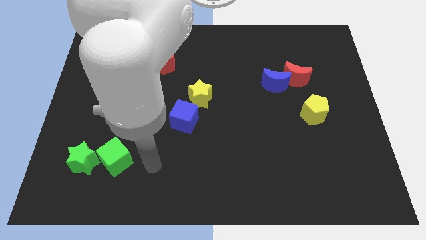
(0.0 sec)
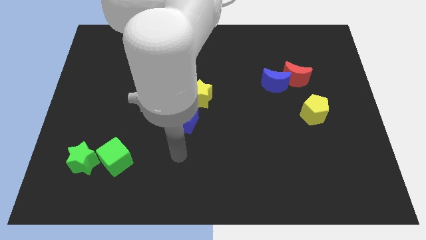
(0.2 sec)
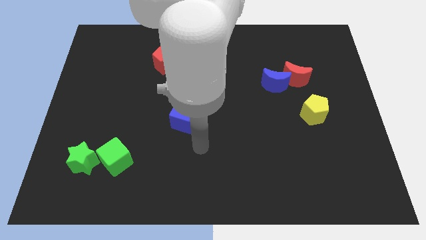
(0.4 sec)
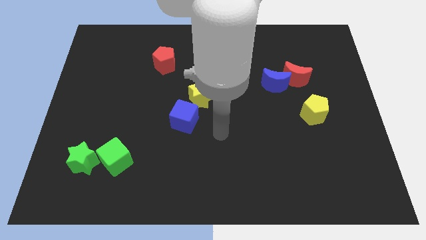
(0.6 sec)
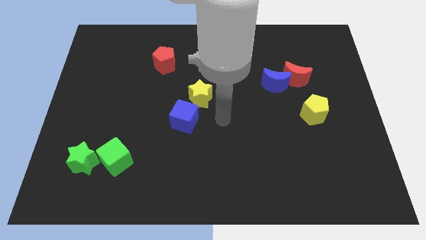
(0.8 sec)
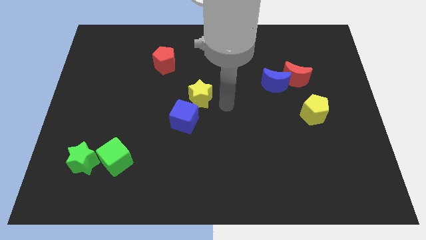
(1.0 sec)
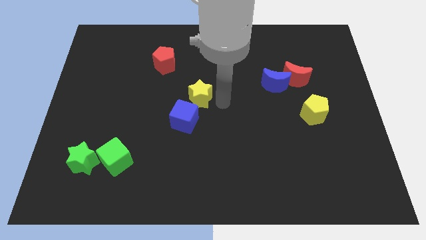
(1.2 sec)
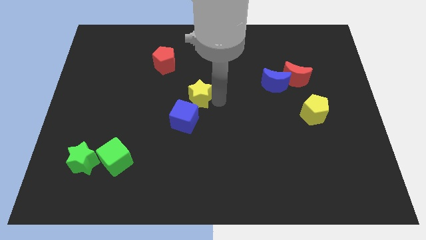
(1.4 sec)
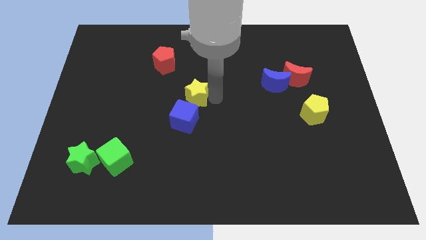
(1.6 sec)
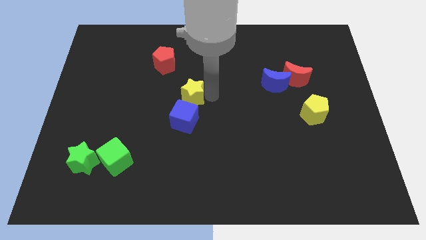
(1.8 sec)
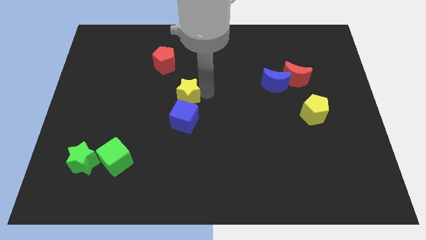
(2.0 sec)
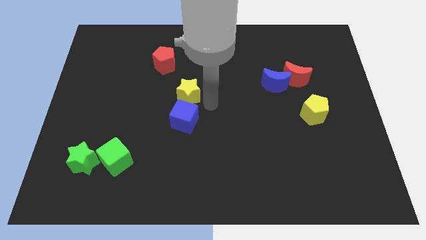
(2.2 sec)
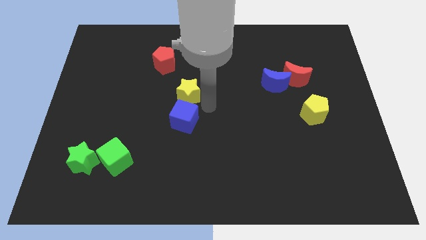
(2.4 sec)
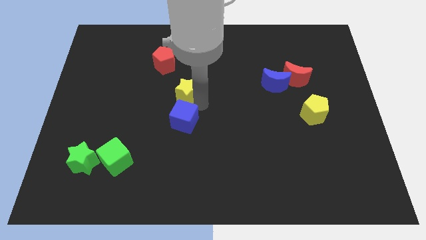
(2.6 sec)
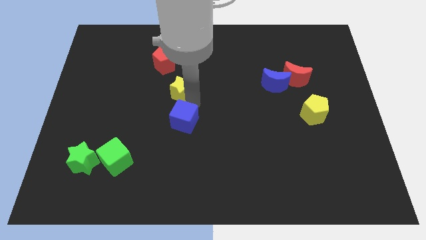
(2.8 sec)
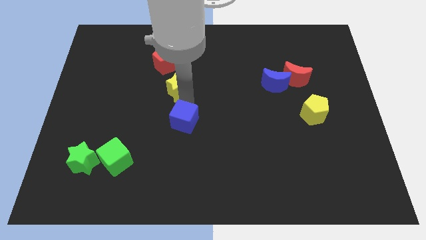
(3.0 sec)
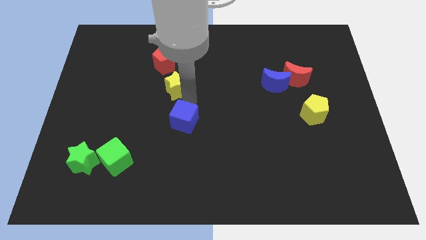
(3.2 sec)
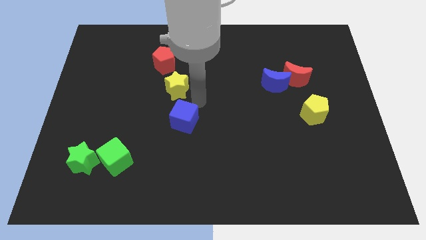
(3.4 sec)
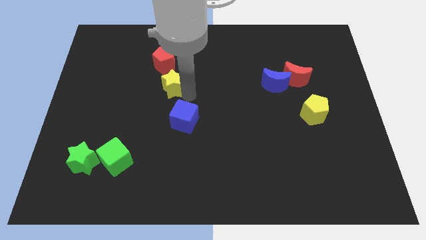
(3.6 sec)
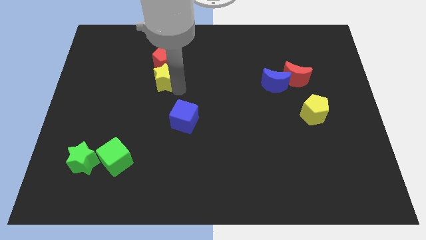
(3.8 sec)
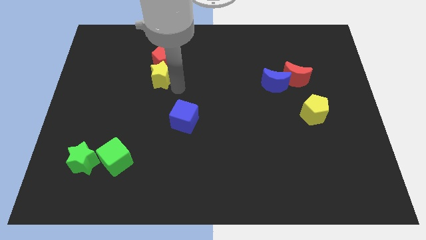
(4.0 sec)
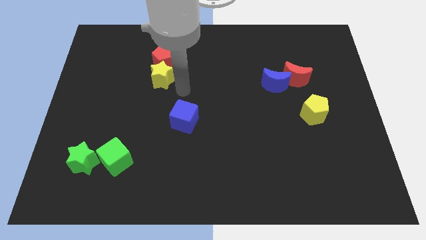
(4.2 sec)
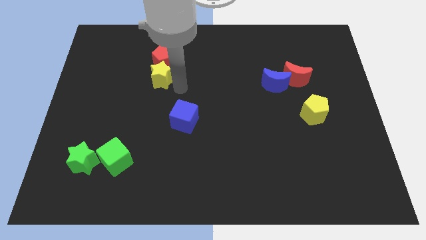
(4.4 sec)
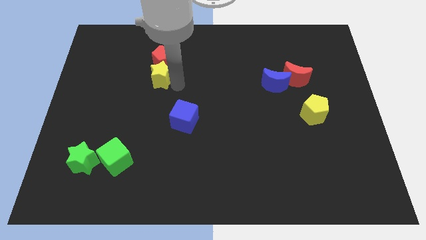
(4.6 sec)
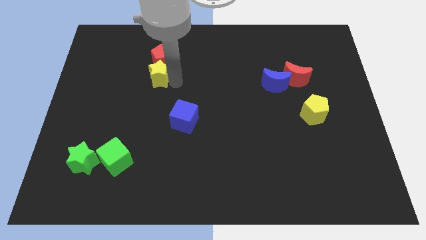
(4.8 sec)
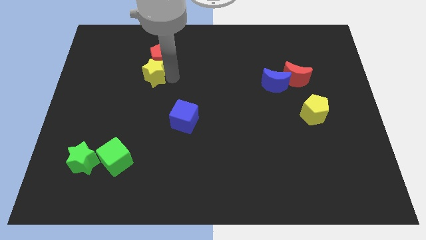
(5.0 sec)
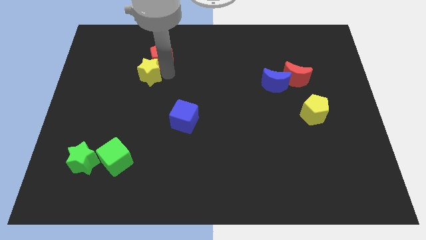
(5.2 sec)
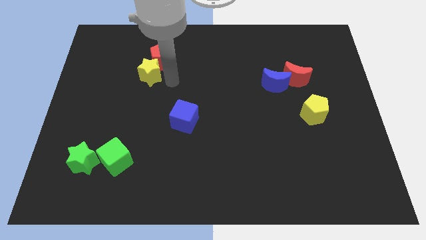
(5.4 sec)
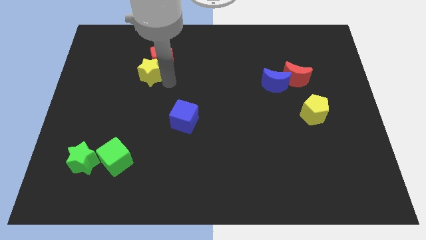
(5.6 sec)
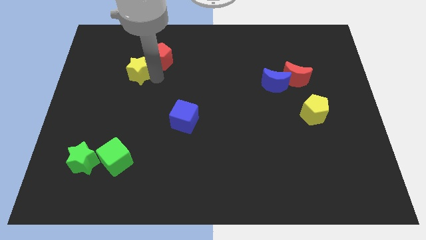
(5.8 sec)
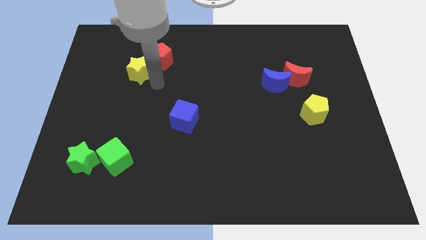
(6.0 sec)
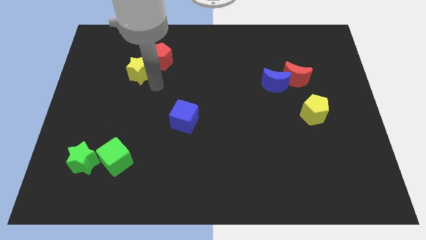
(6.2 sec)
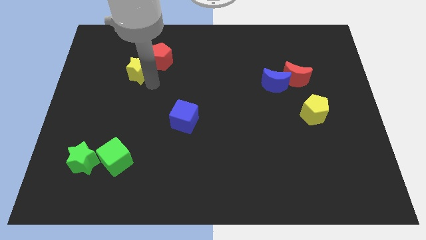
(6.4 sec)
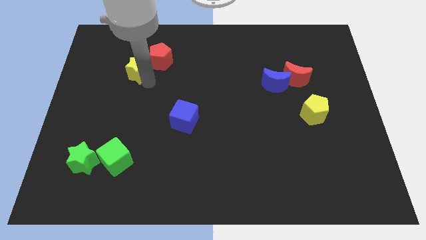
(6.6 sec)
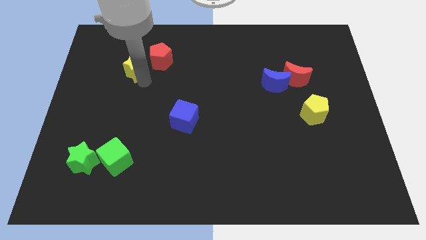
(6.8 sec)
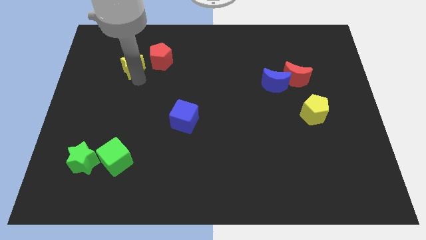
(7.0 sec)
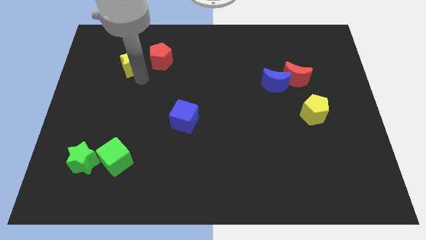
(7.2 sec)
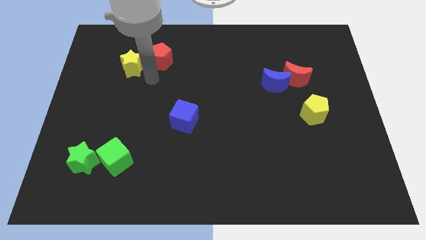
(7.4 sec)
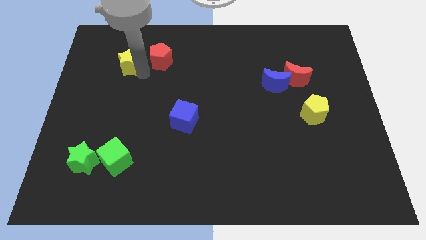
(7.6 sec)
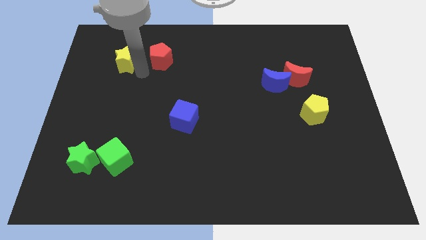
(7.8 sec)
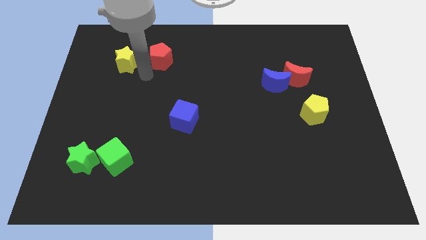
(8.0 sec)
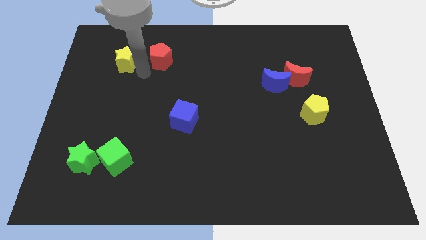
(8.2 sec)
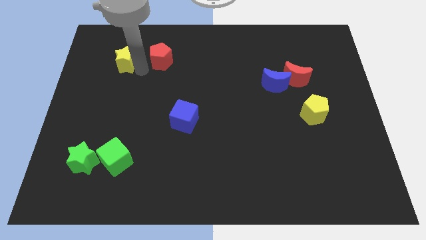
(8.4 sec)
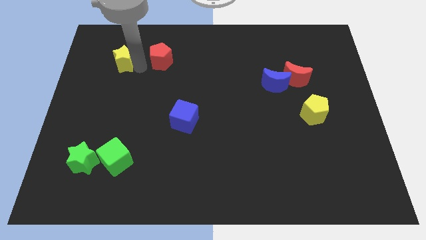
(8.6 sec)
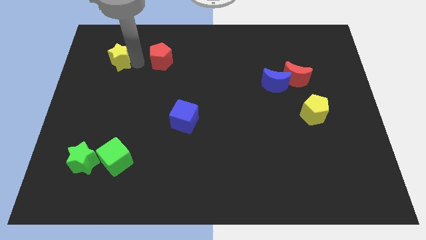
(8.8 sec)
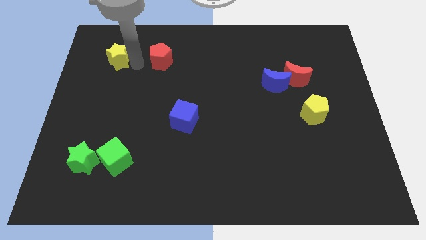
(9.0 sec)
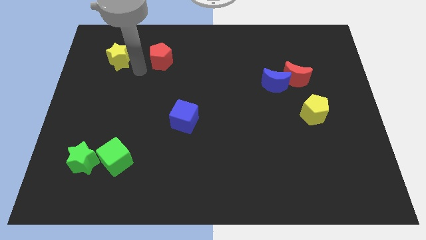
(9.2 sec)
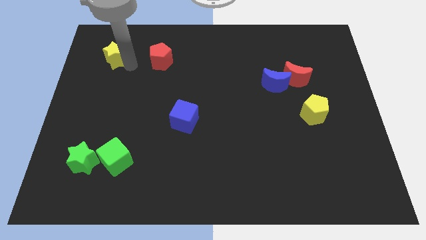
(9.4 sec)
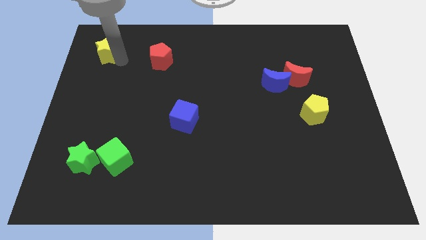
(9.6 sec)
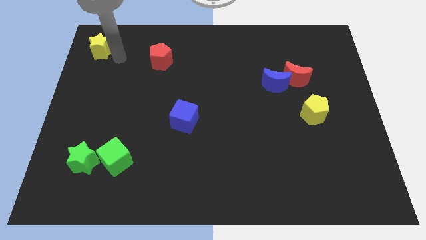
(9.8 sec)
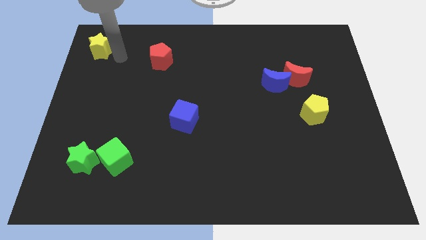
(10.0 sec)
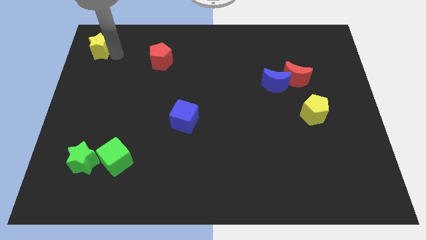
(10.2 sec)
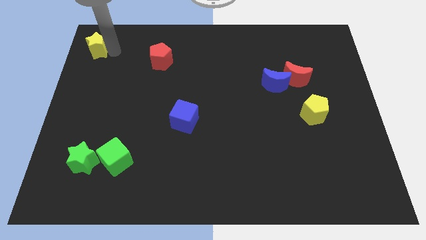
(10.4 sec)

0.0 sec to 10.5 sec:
put the yellow star to the top left of the board

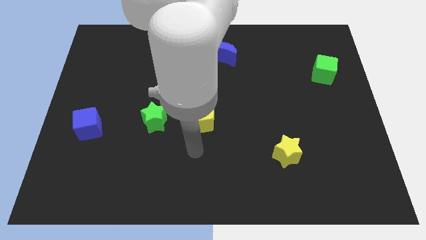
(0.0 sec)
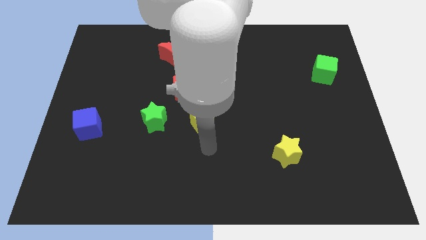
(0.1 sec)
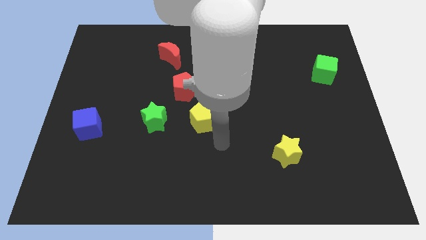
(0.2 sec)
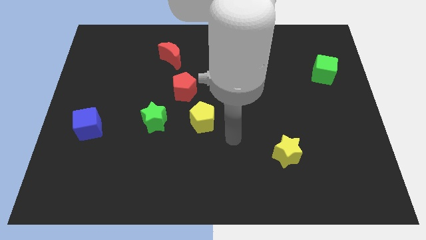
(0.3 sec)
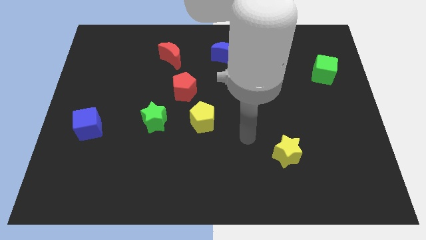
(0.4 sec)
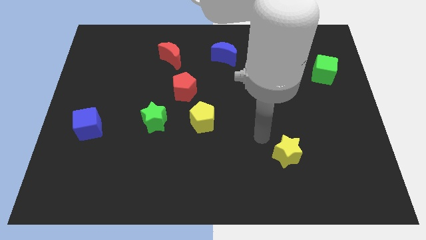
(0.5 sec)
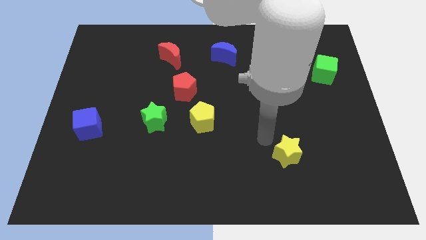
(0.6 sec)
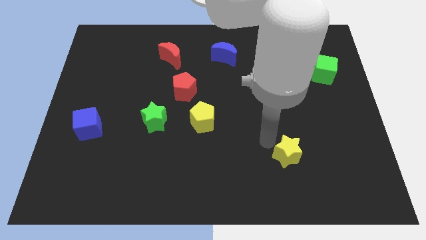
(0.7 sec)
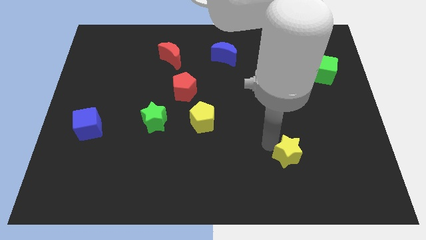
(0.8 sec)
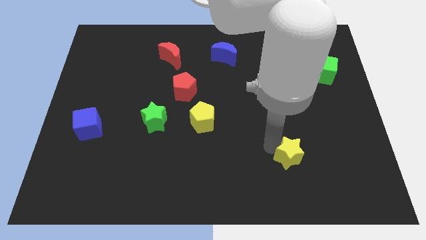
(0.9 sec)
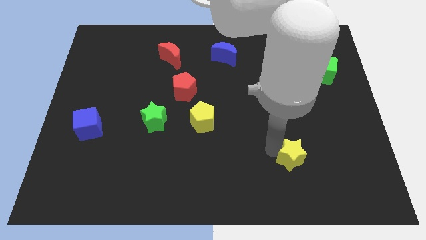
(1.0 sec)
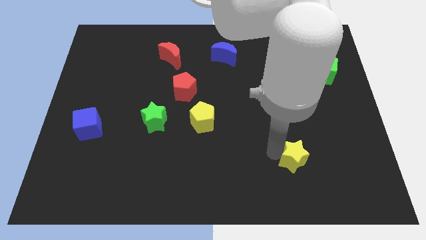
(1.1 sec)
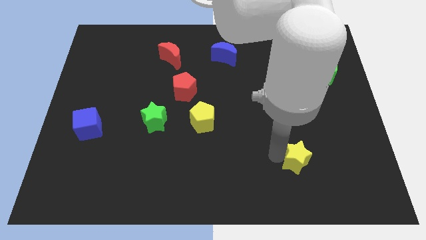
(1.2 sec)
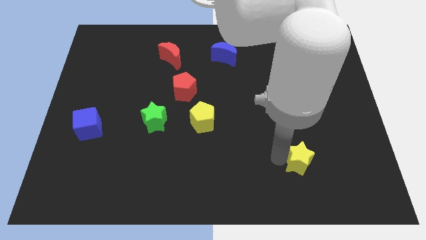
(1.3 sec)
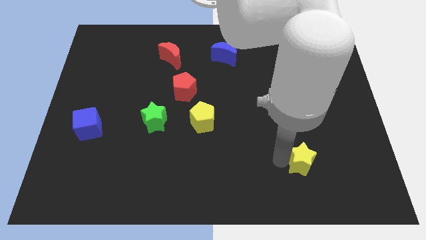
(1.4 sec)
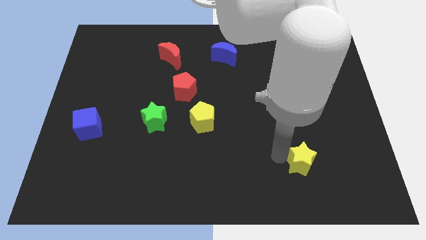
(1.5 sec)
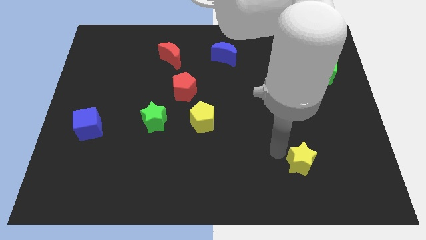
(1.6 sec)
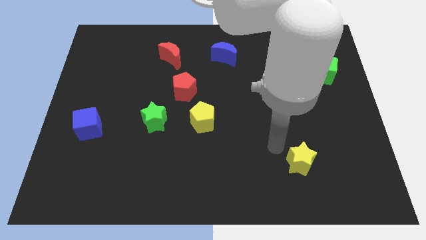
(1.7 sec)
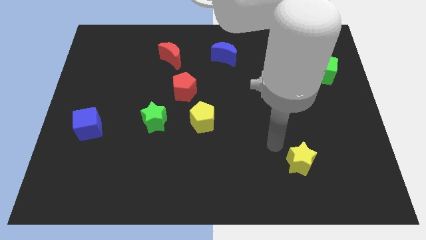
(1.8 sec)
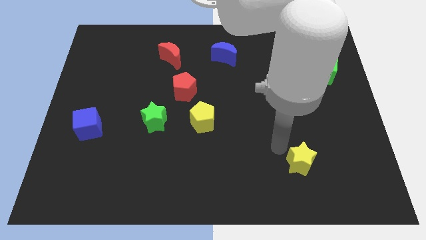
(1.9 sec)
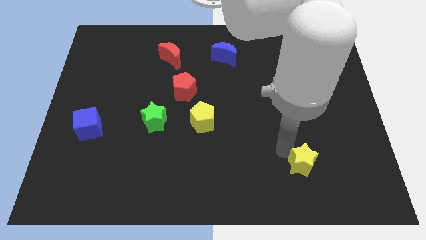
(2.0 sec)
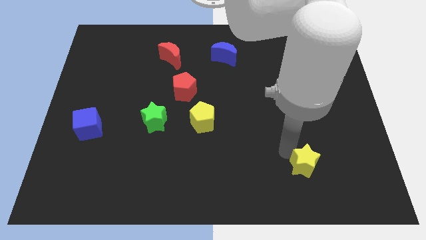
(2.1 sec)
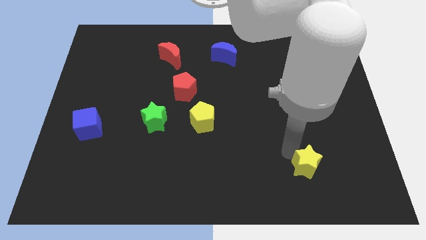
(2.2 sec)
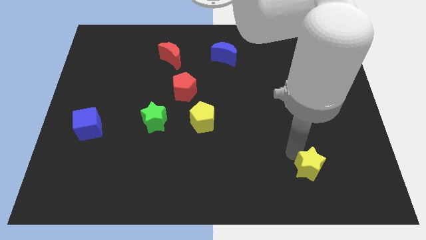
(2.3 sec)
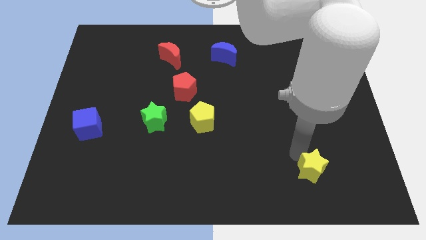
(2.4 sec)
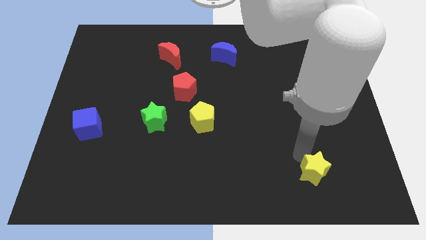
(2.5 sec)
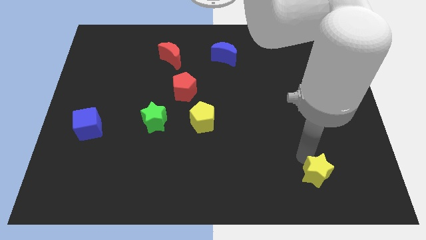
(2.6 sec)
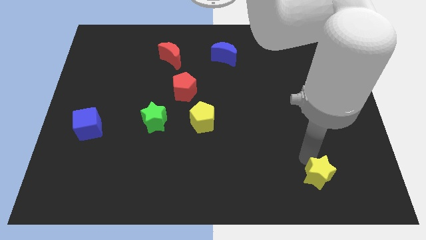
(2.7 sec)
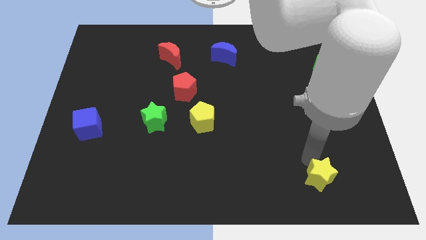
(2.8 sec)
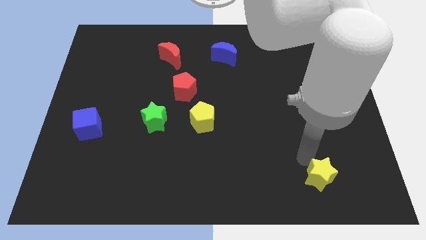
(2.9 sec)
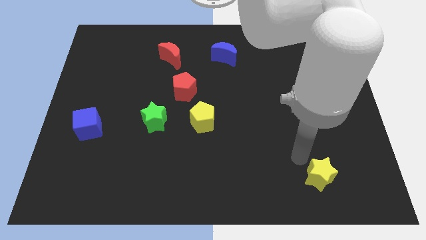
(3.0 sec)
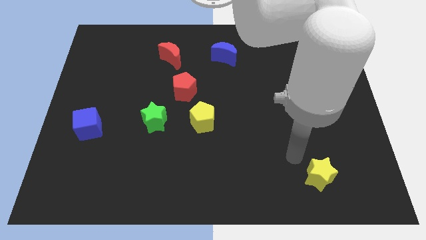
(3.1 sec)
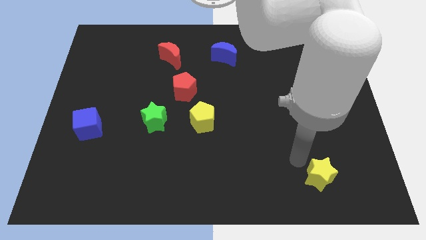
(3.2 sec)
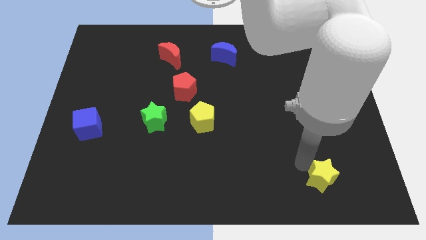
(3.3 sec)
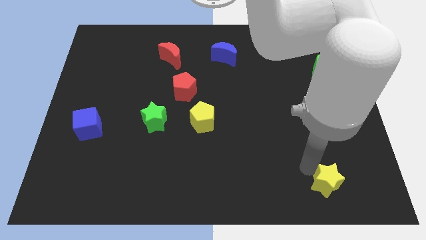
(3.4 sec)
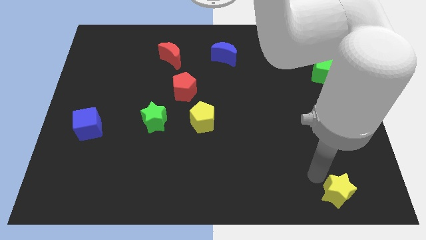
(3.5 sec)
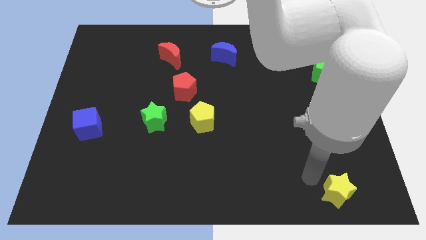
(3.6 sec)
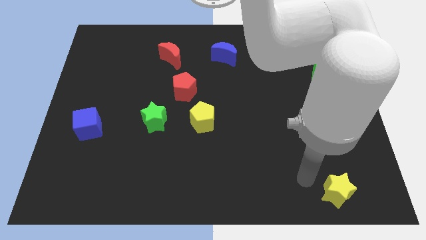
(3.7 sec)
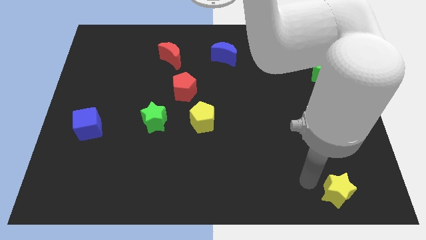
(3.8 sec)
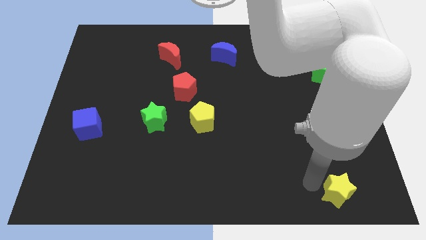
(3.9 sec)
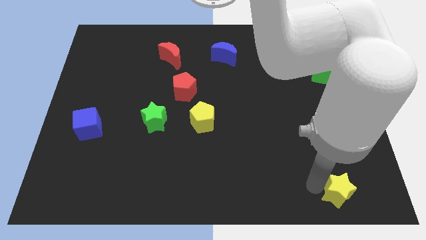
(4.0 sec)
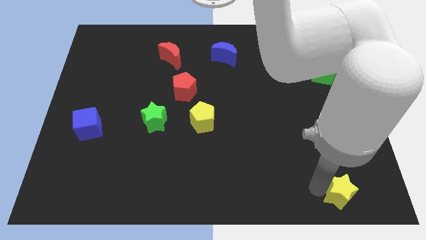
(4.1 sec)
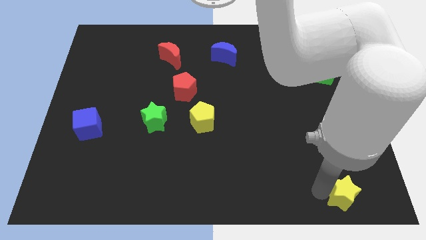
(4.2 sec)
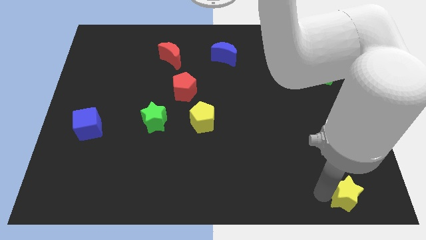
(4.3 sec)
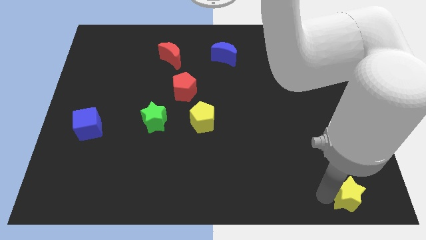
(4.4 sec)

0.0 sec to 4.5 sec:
push the yellow star to the bottom right of the board
